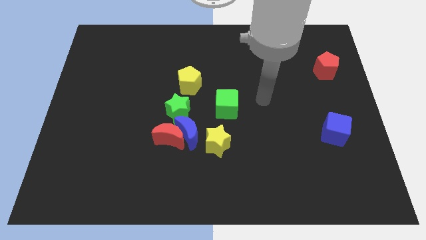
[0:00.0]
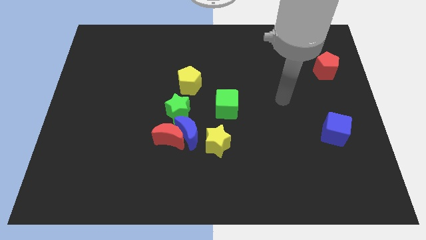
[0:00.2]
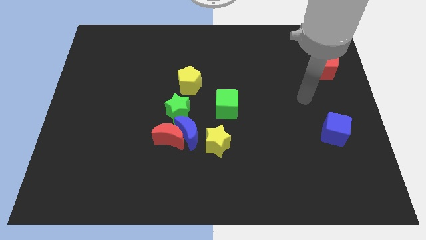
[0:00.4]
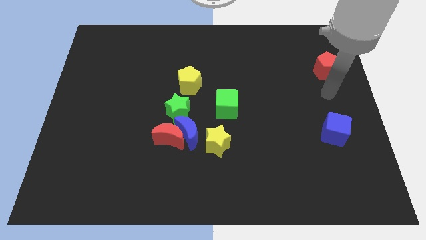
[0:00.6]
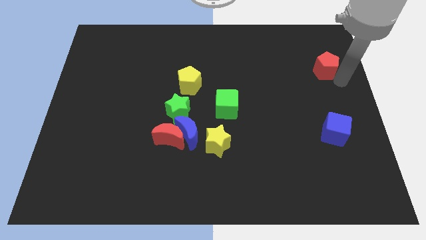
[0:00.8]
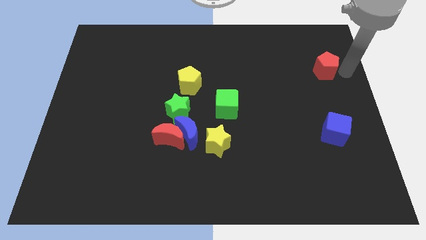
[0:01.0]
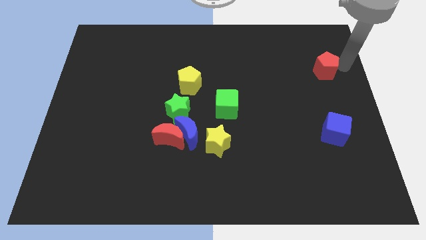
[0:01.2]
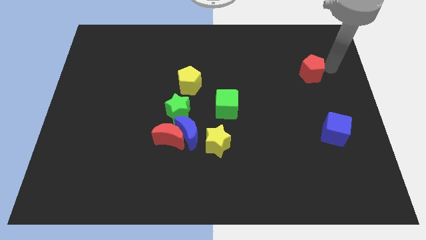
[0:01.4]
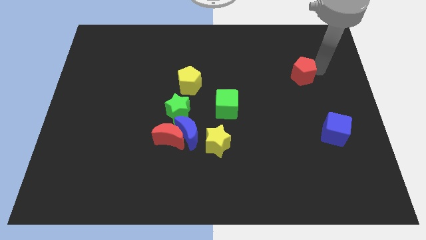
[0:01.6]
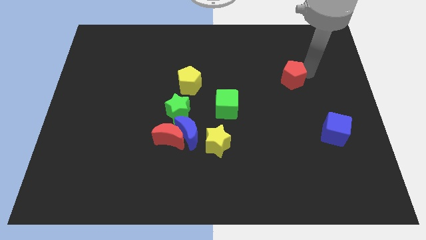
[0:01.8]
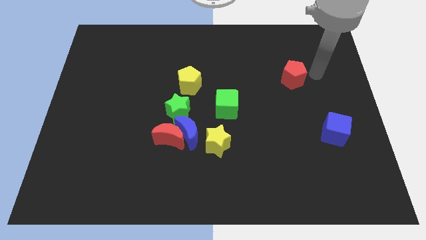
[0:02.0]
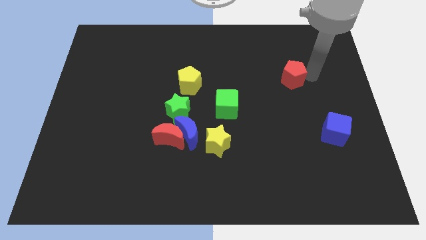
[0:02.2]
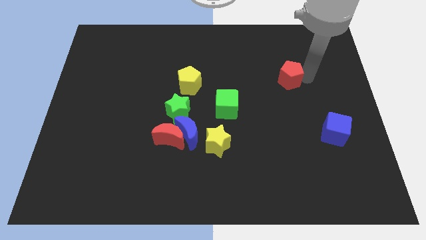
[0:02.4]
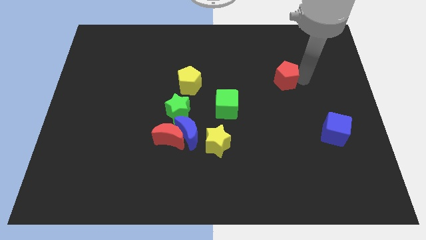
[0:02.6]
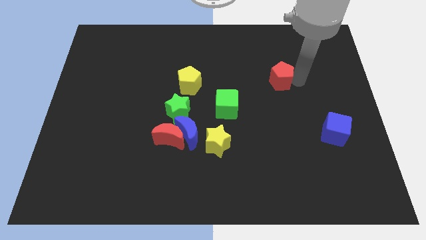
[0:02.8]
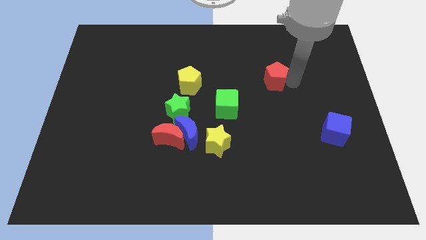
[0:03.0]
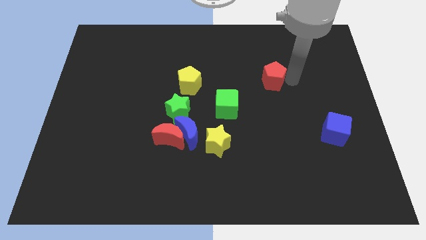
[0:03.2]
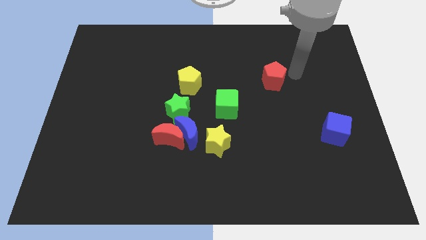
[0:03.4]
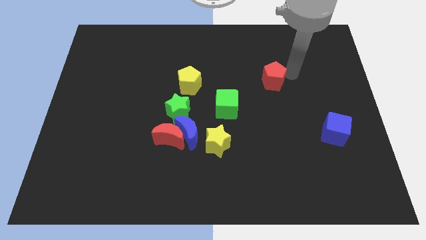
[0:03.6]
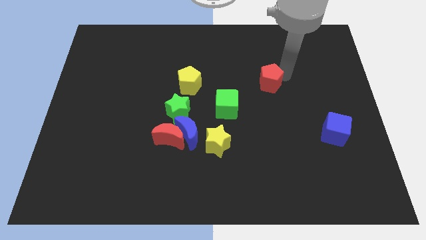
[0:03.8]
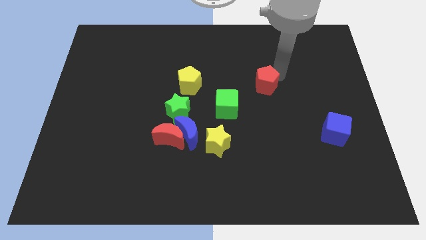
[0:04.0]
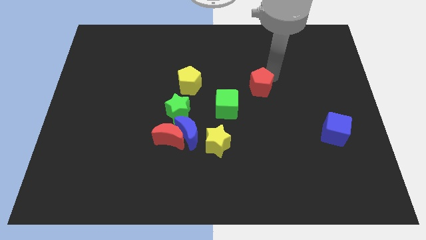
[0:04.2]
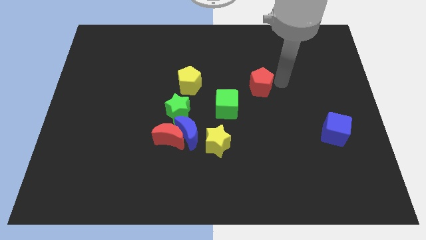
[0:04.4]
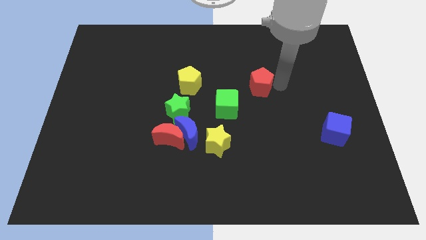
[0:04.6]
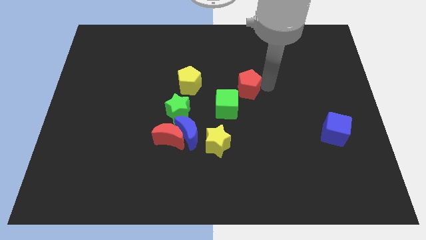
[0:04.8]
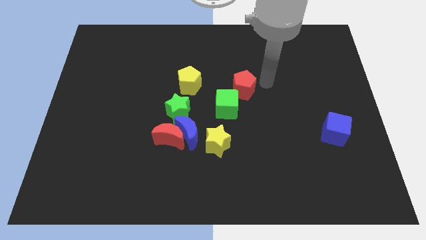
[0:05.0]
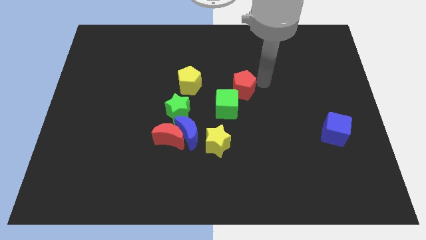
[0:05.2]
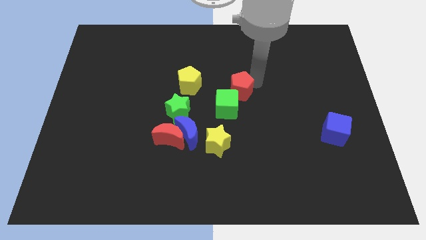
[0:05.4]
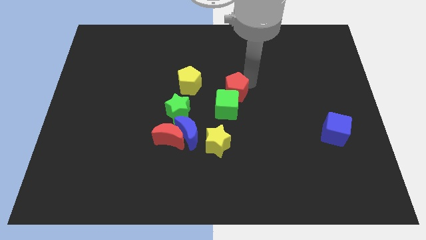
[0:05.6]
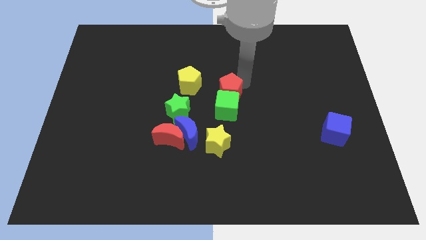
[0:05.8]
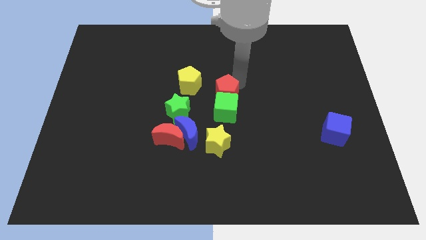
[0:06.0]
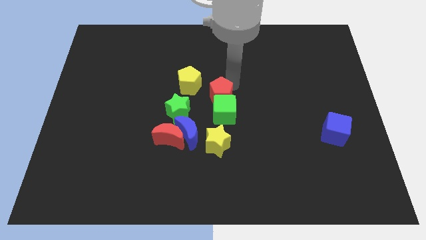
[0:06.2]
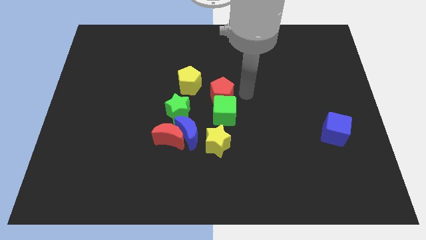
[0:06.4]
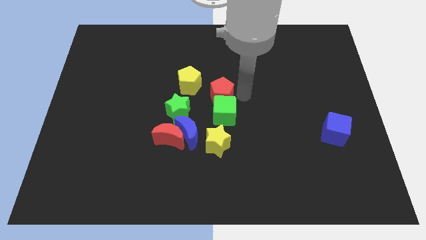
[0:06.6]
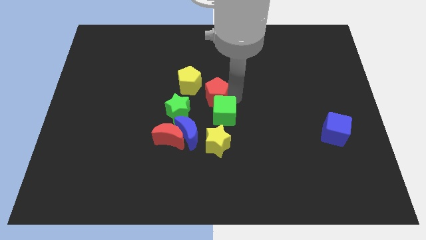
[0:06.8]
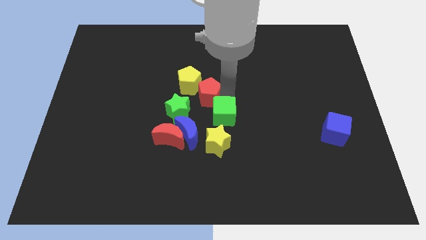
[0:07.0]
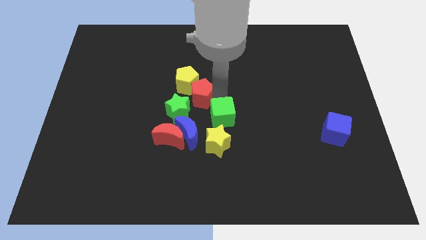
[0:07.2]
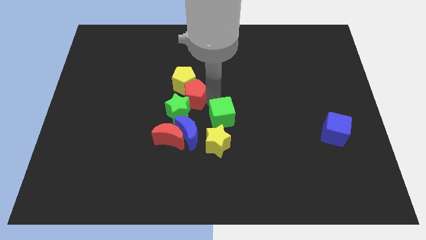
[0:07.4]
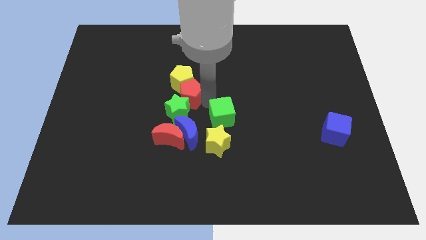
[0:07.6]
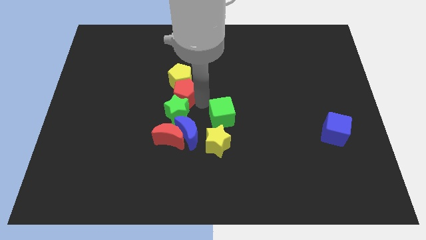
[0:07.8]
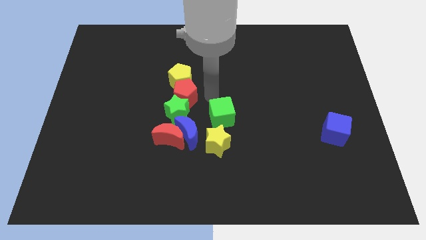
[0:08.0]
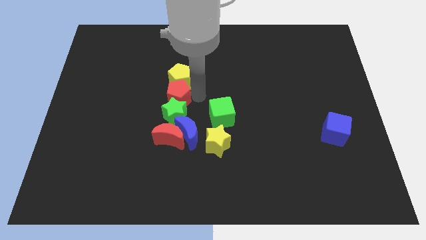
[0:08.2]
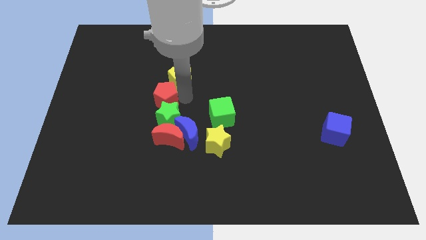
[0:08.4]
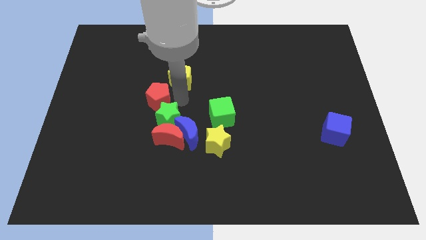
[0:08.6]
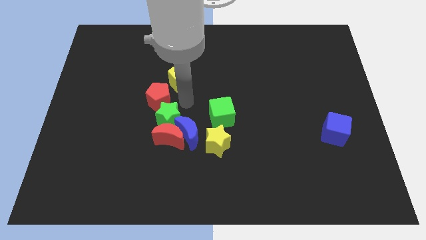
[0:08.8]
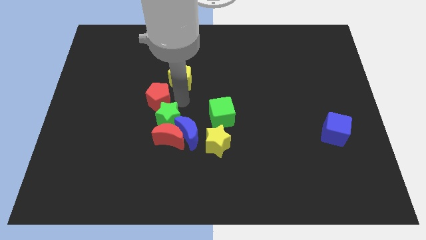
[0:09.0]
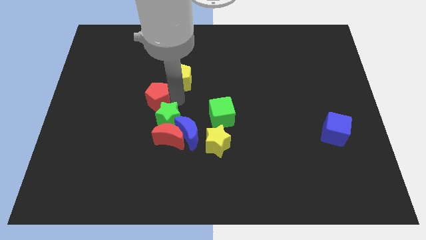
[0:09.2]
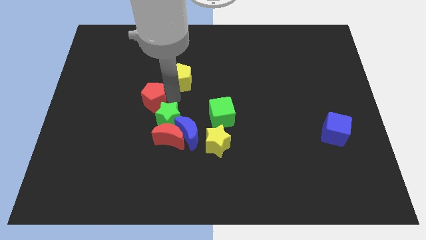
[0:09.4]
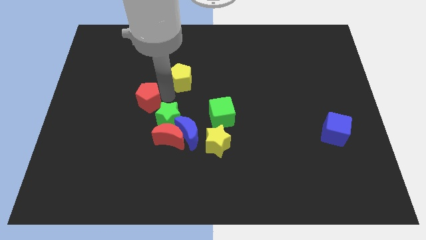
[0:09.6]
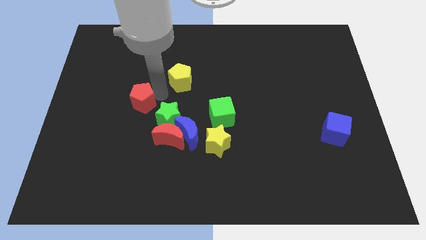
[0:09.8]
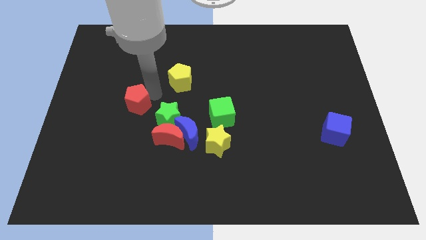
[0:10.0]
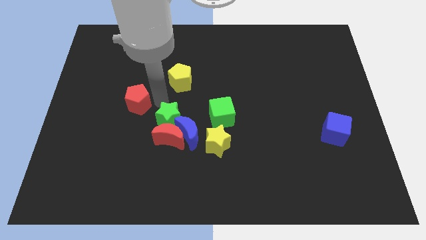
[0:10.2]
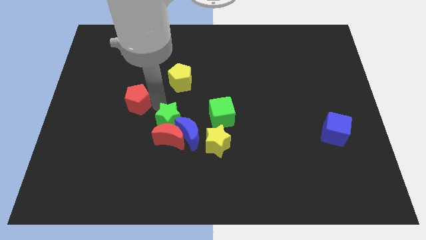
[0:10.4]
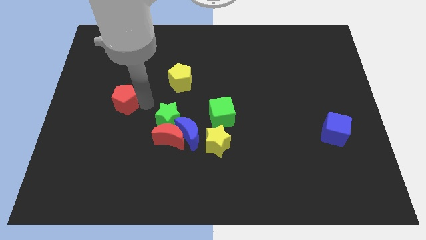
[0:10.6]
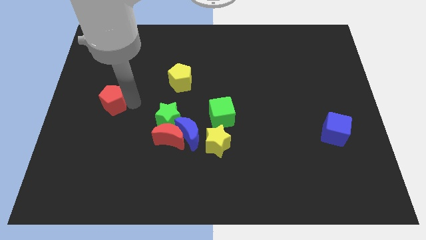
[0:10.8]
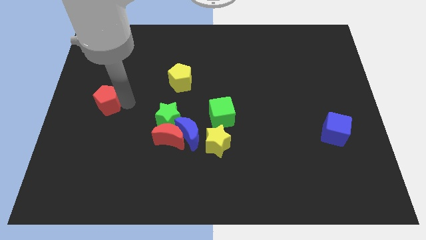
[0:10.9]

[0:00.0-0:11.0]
put the red pentagon to the left side of the board

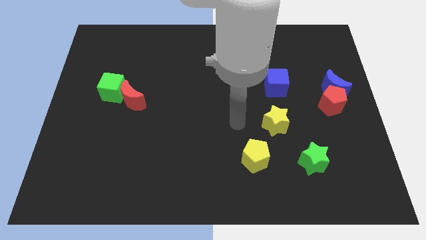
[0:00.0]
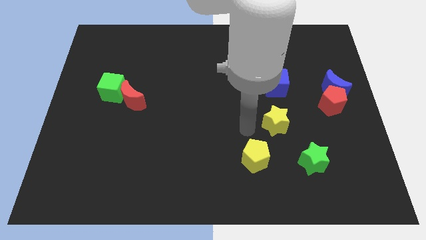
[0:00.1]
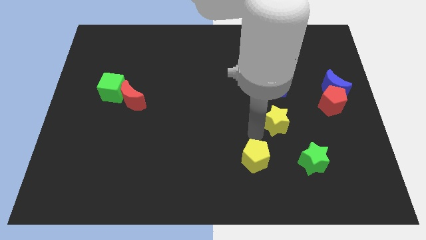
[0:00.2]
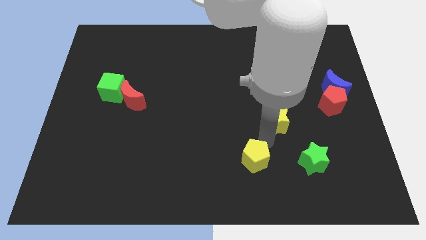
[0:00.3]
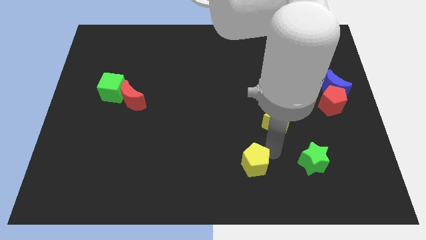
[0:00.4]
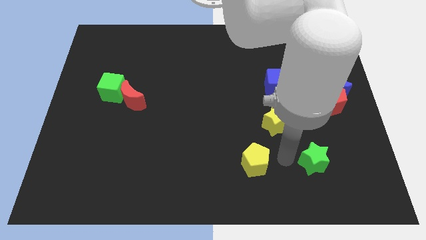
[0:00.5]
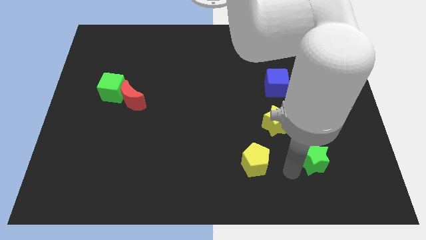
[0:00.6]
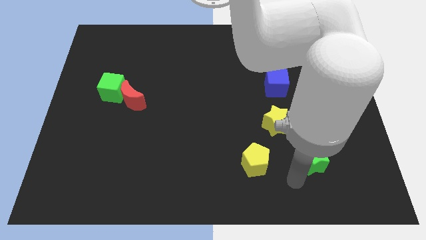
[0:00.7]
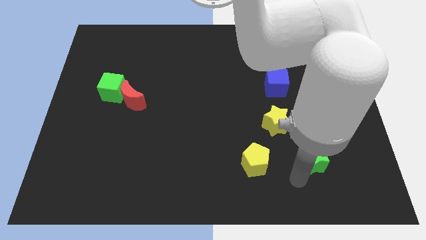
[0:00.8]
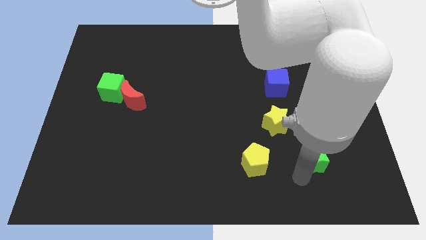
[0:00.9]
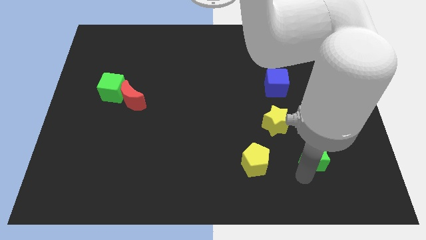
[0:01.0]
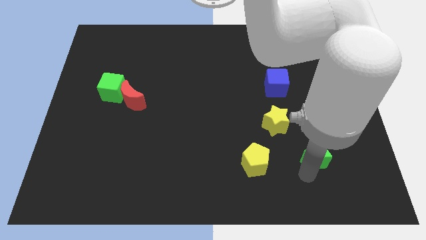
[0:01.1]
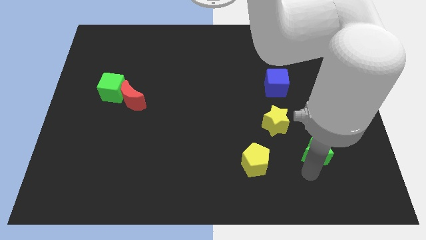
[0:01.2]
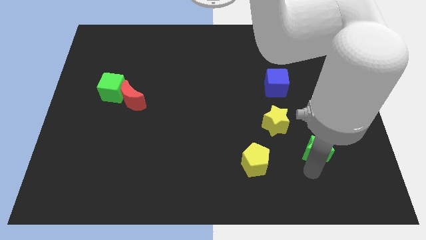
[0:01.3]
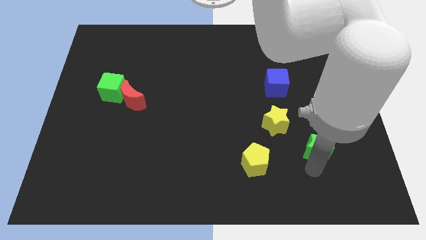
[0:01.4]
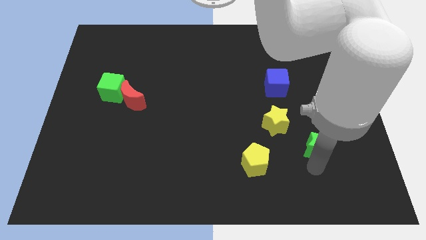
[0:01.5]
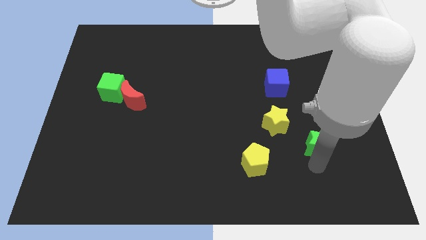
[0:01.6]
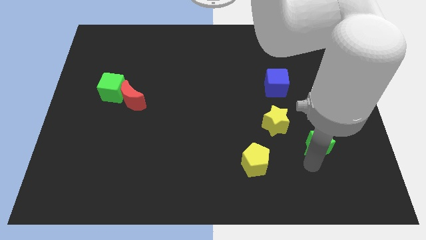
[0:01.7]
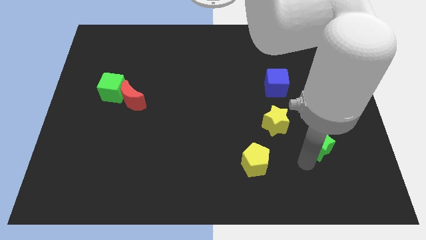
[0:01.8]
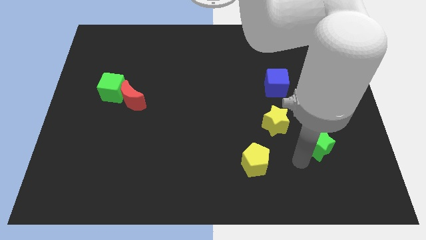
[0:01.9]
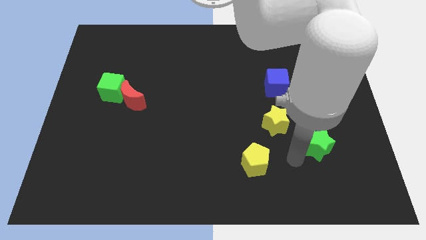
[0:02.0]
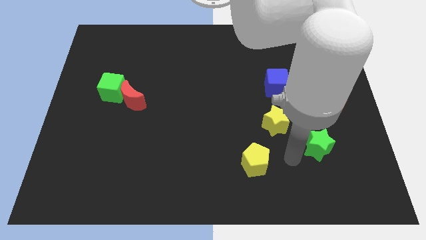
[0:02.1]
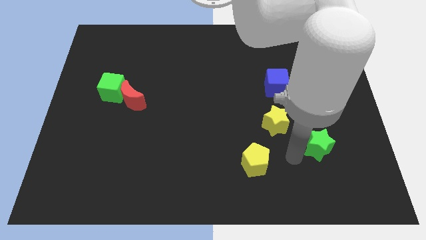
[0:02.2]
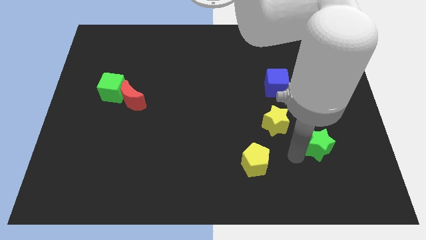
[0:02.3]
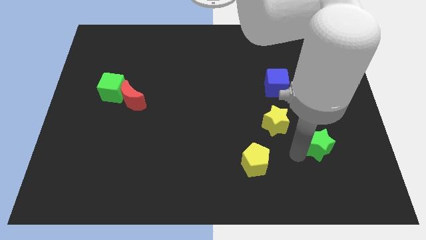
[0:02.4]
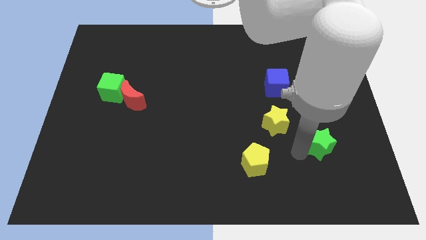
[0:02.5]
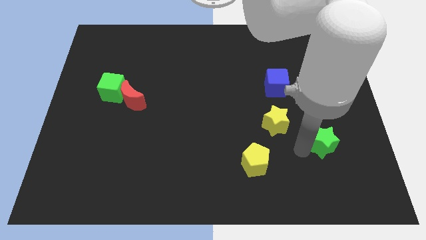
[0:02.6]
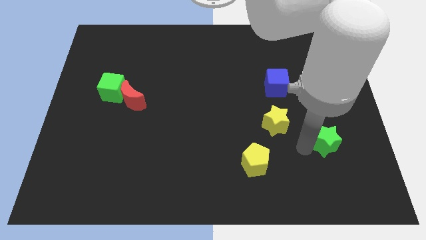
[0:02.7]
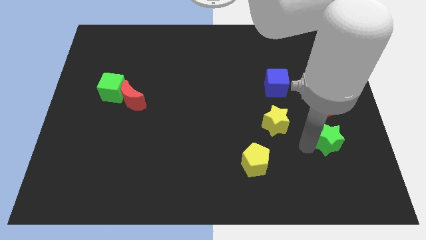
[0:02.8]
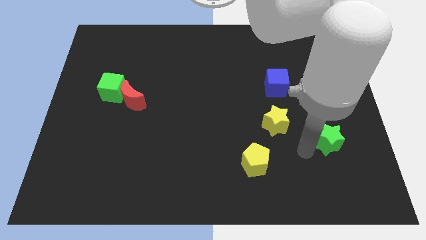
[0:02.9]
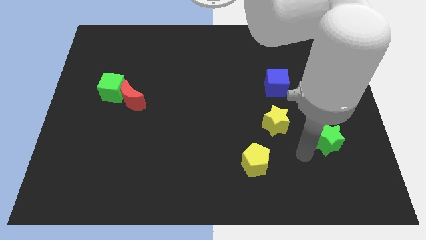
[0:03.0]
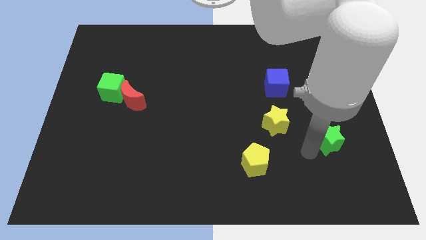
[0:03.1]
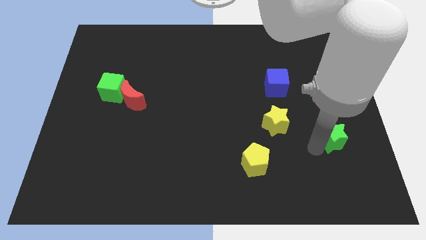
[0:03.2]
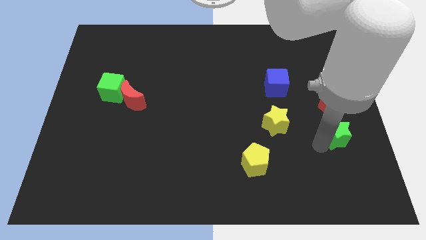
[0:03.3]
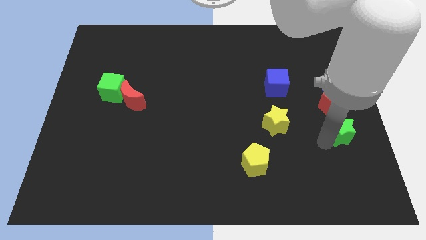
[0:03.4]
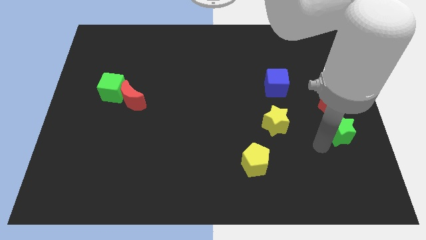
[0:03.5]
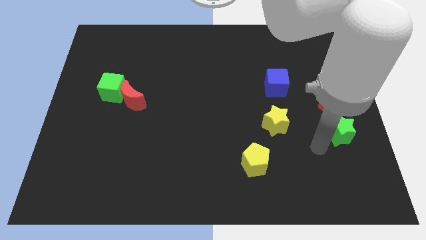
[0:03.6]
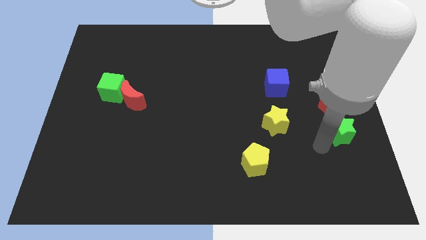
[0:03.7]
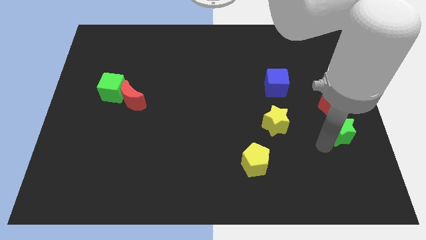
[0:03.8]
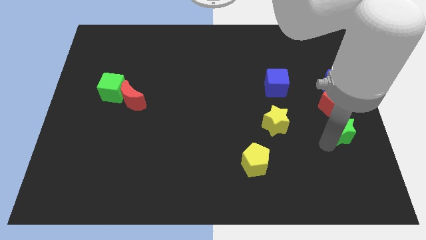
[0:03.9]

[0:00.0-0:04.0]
slide the green star to the center right
